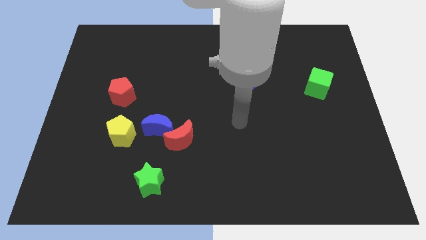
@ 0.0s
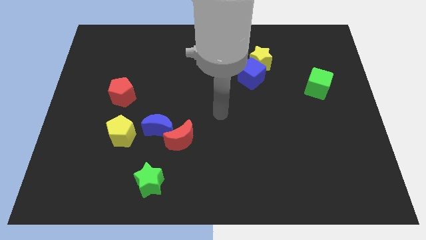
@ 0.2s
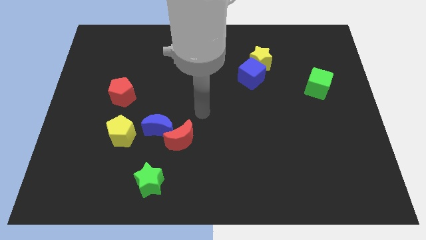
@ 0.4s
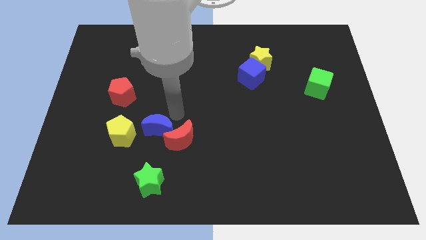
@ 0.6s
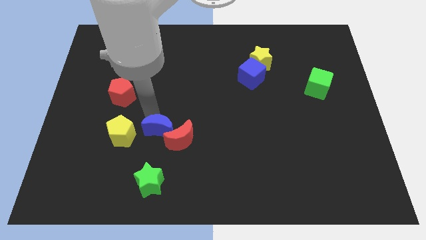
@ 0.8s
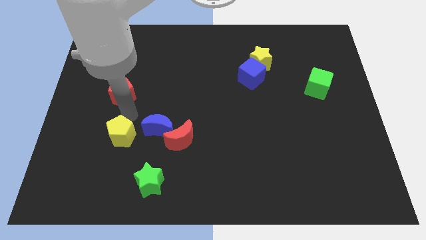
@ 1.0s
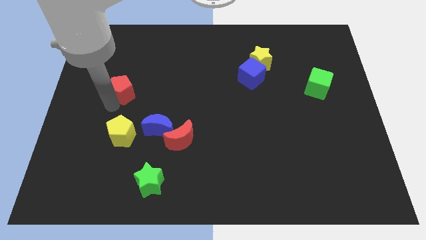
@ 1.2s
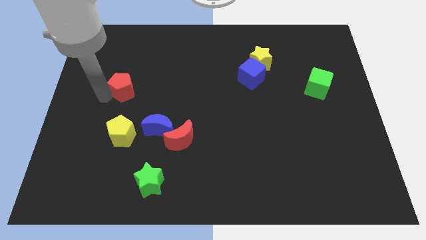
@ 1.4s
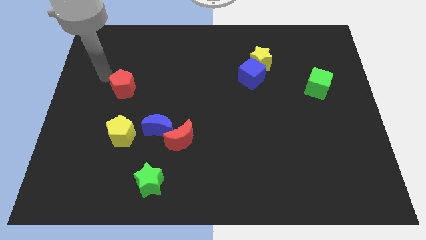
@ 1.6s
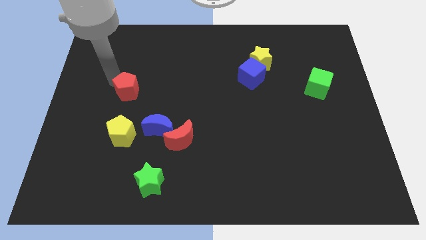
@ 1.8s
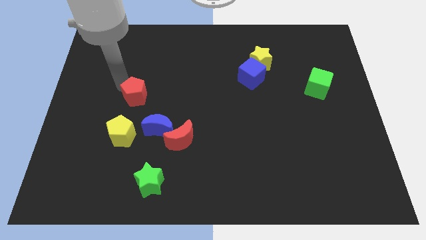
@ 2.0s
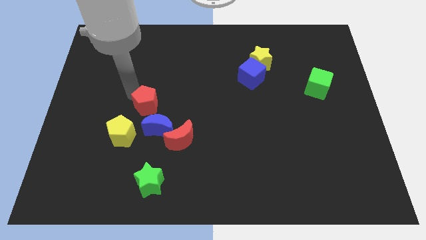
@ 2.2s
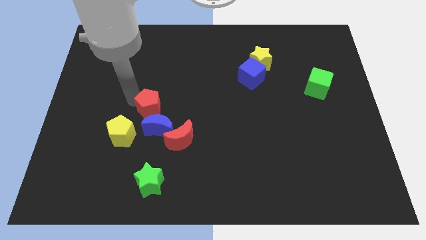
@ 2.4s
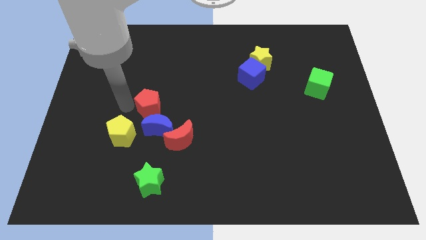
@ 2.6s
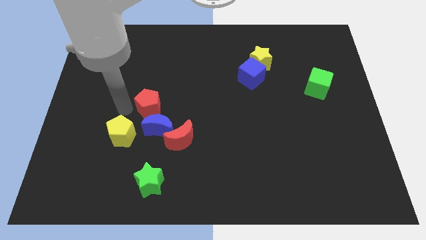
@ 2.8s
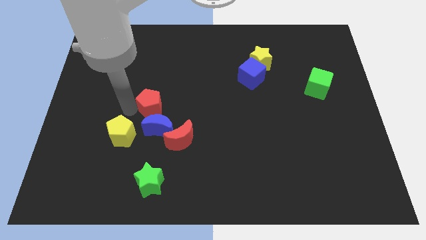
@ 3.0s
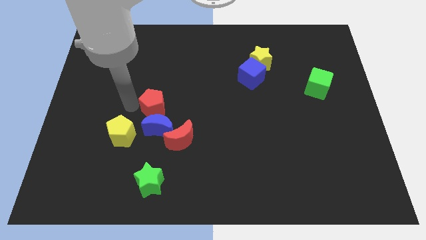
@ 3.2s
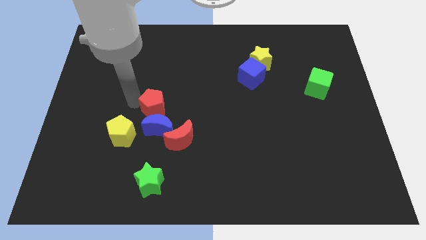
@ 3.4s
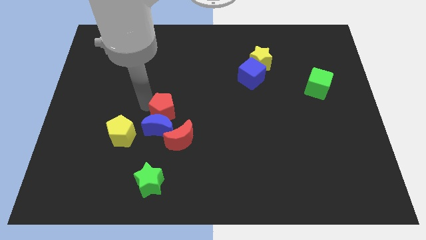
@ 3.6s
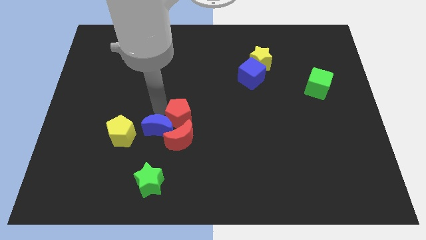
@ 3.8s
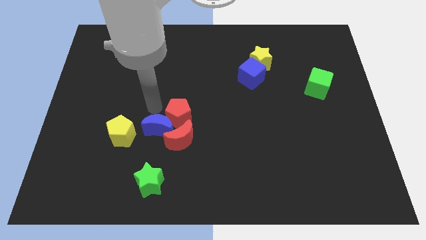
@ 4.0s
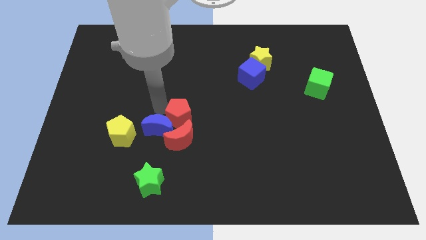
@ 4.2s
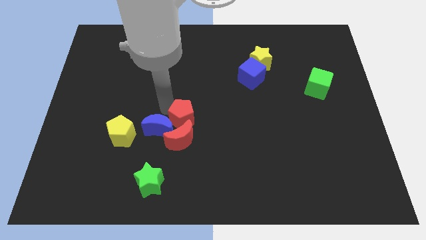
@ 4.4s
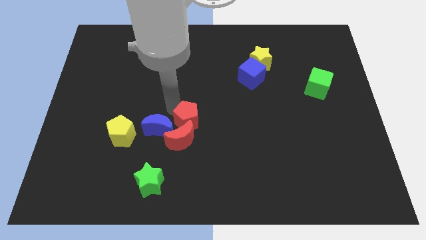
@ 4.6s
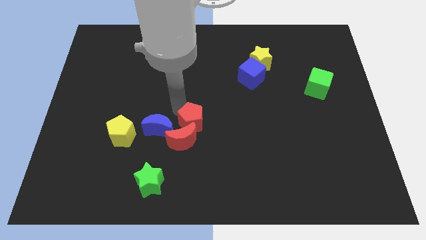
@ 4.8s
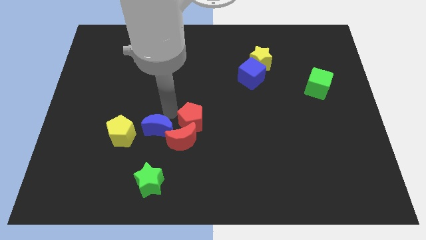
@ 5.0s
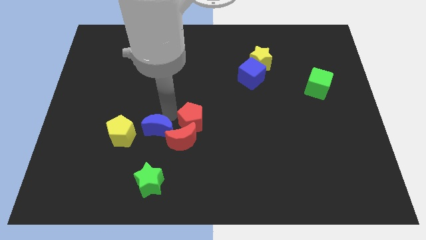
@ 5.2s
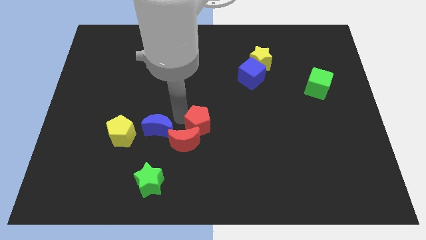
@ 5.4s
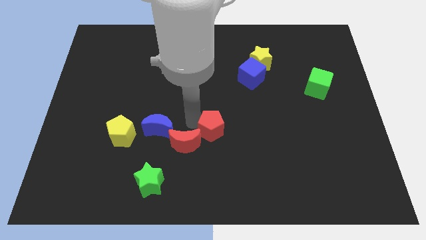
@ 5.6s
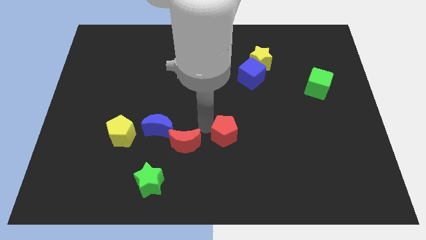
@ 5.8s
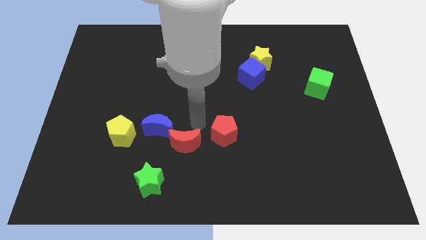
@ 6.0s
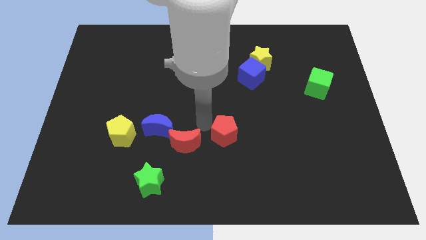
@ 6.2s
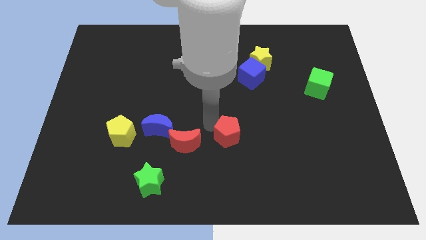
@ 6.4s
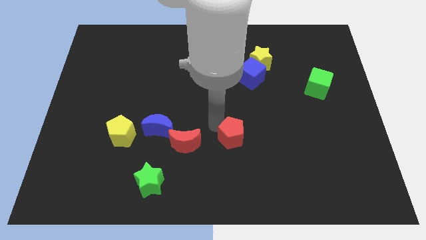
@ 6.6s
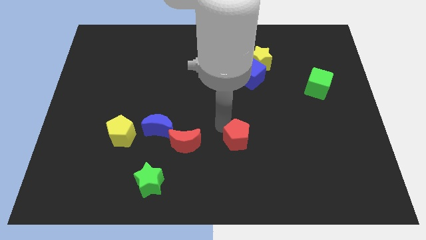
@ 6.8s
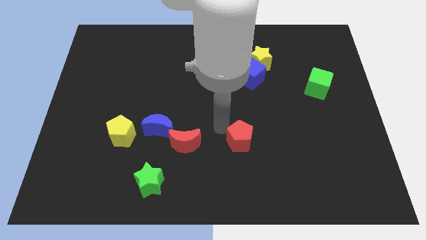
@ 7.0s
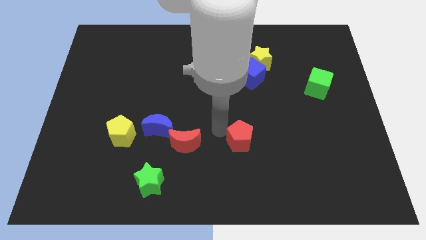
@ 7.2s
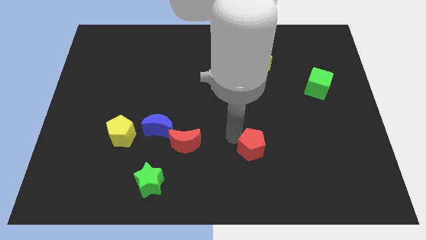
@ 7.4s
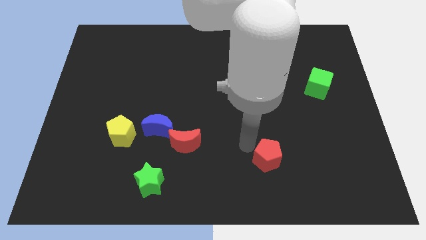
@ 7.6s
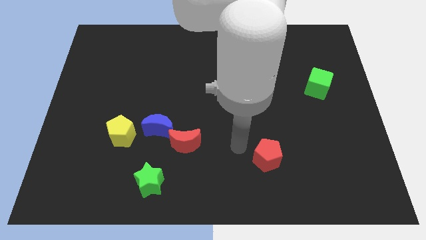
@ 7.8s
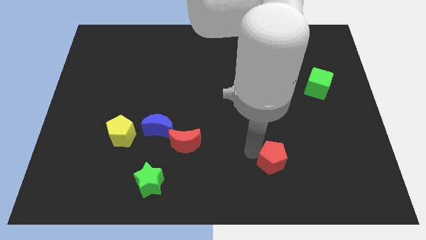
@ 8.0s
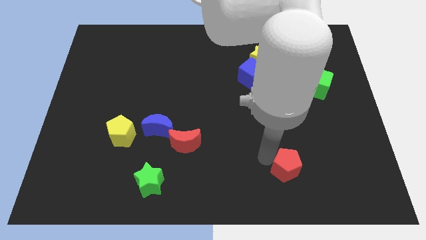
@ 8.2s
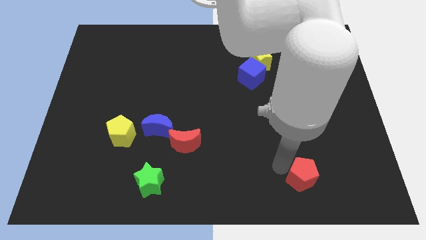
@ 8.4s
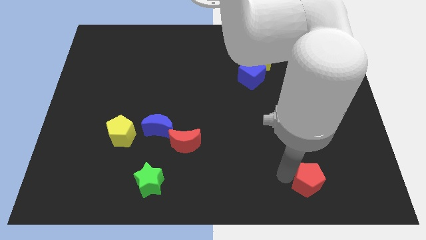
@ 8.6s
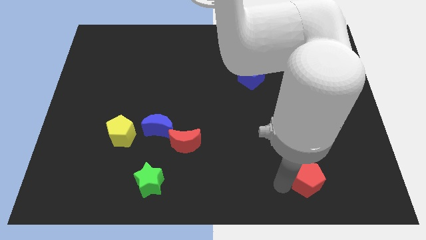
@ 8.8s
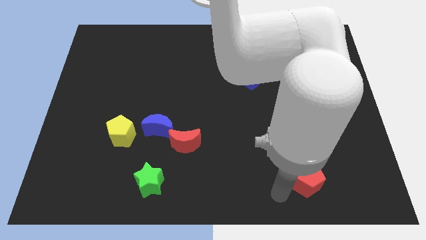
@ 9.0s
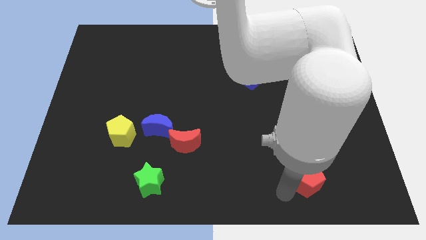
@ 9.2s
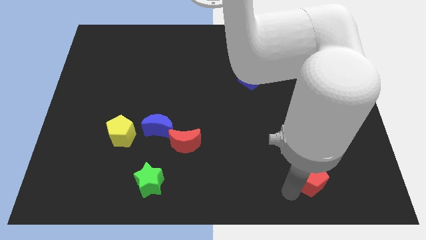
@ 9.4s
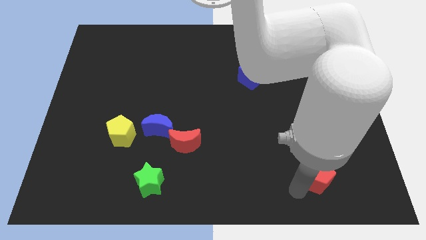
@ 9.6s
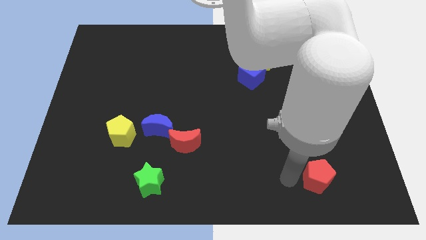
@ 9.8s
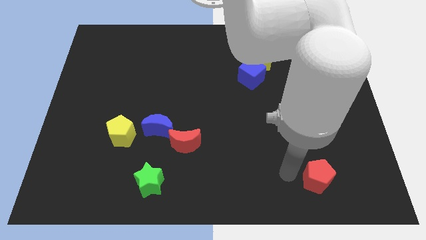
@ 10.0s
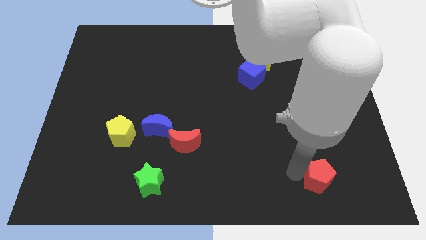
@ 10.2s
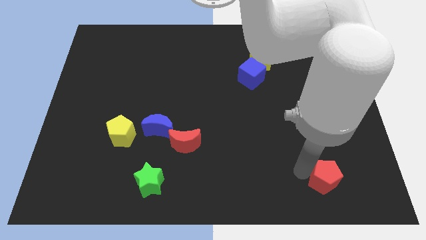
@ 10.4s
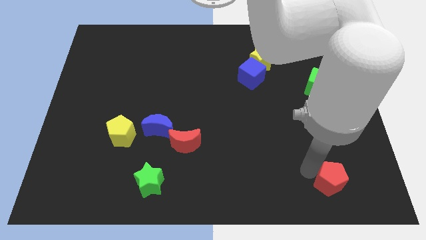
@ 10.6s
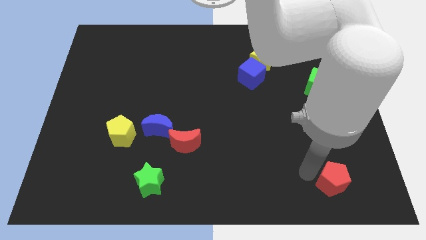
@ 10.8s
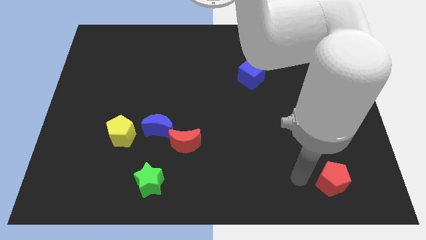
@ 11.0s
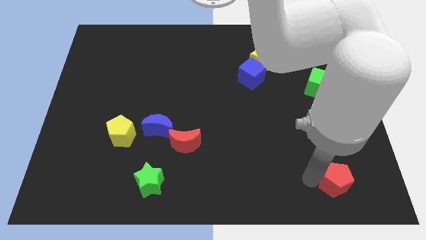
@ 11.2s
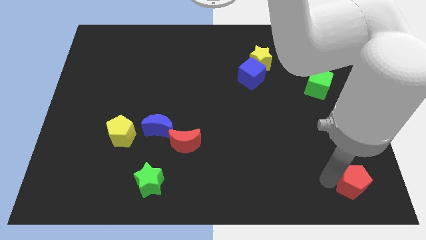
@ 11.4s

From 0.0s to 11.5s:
slide the red pentagon to the lower right corner

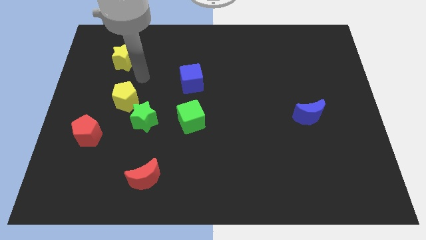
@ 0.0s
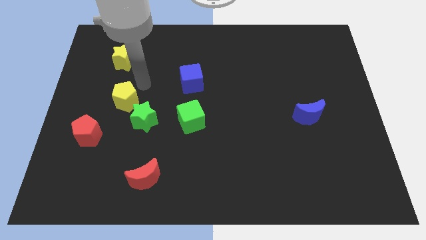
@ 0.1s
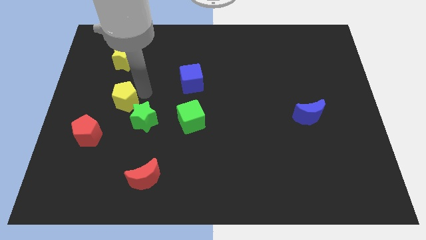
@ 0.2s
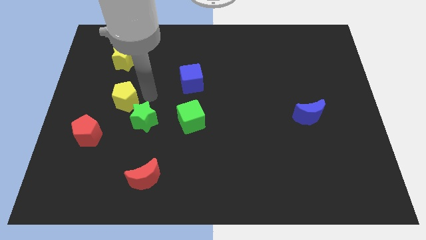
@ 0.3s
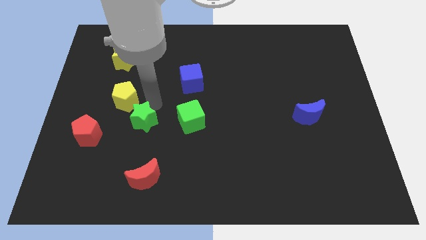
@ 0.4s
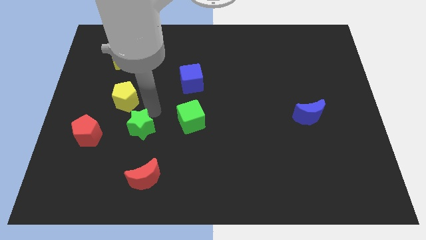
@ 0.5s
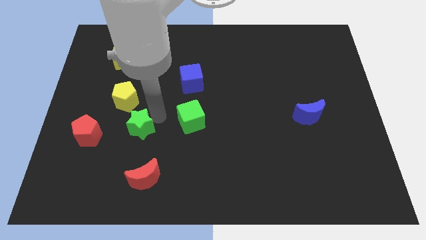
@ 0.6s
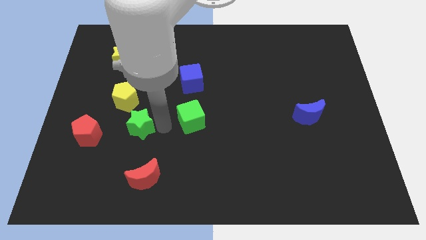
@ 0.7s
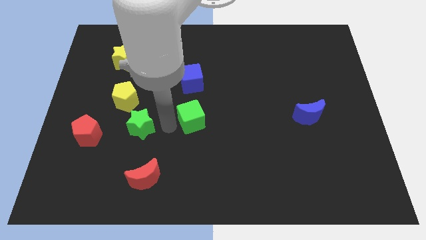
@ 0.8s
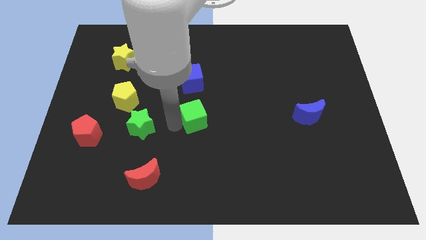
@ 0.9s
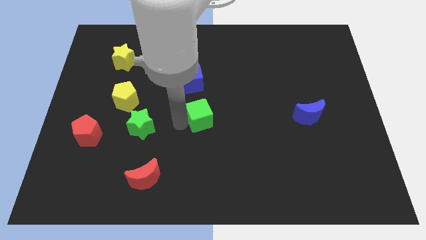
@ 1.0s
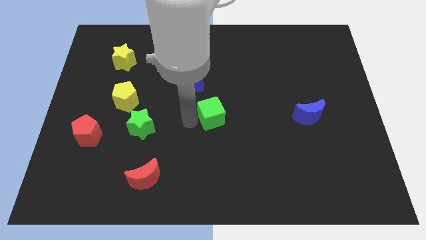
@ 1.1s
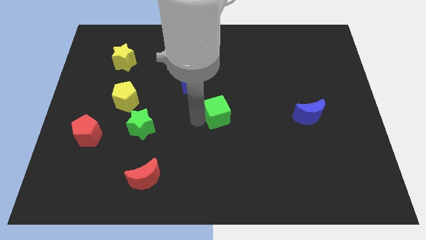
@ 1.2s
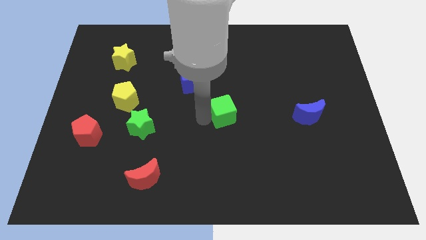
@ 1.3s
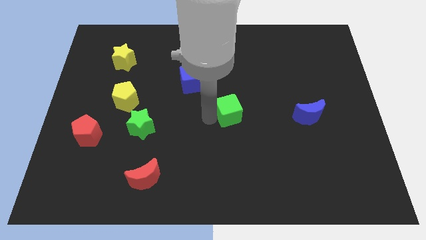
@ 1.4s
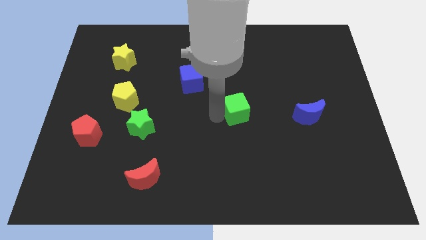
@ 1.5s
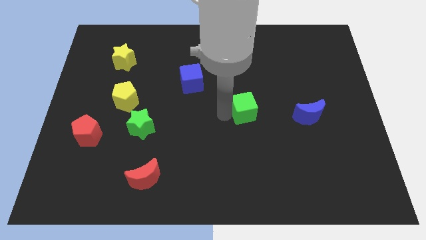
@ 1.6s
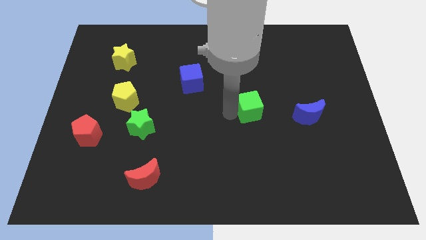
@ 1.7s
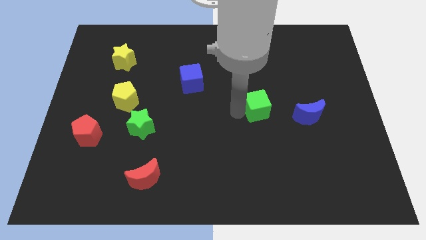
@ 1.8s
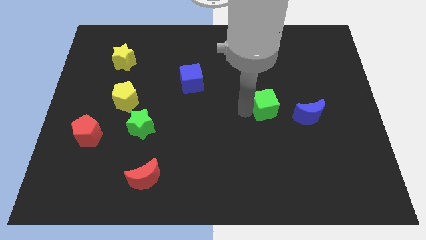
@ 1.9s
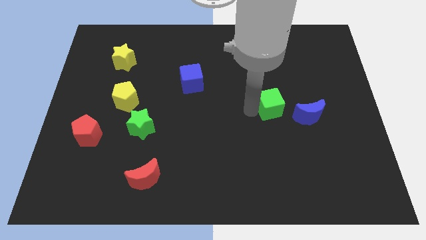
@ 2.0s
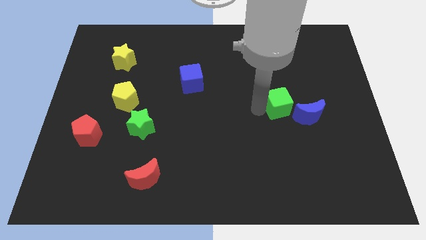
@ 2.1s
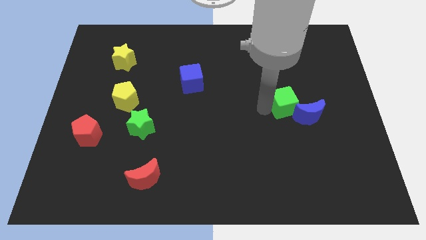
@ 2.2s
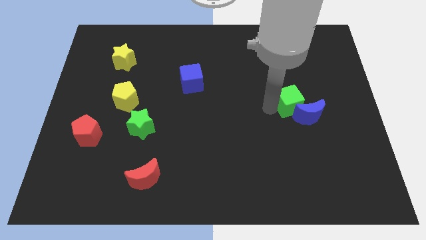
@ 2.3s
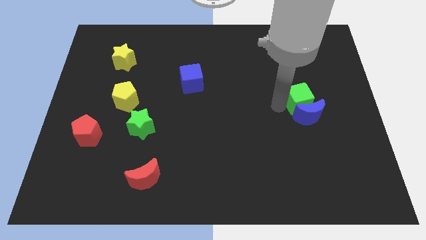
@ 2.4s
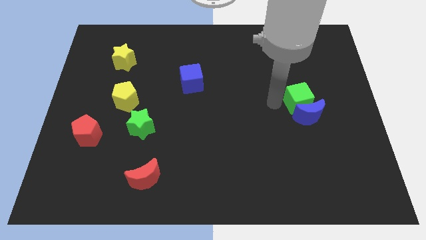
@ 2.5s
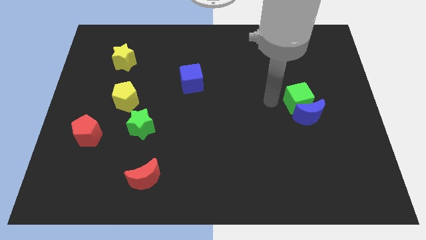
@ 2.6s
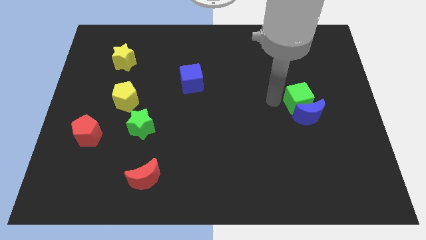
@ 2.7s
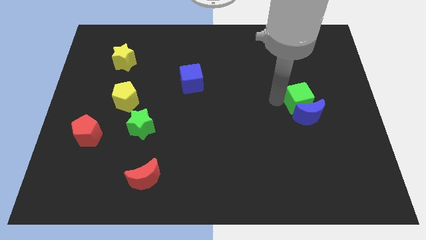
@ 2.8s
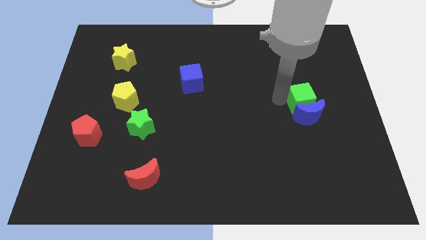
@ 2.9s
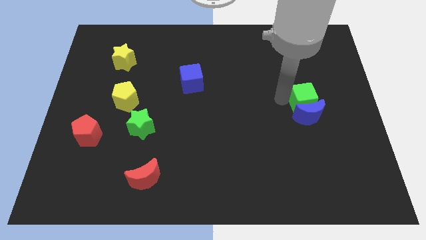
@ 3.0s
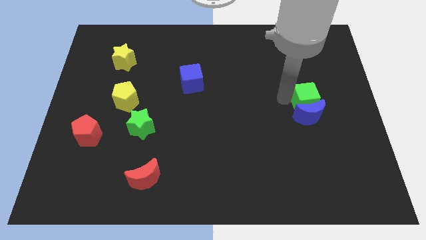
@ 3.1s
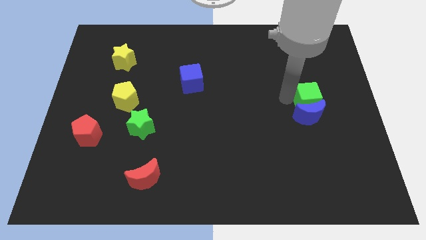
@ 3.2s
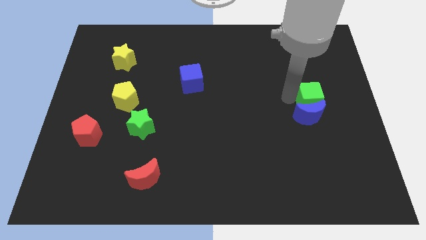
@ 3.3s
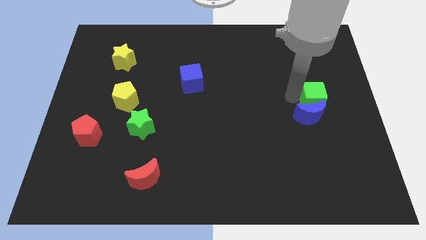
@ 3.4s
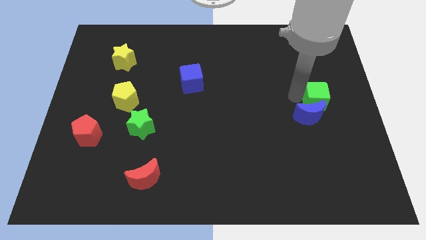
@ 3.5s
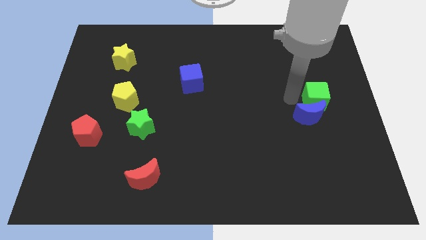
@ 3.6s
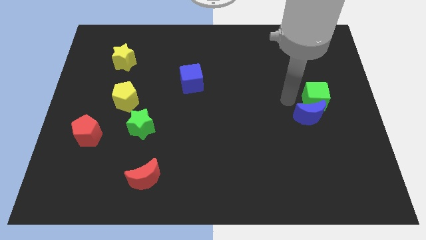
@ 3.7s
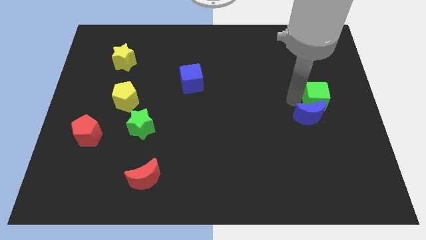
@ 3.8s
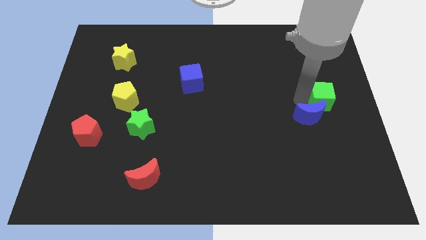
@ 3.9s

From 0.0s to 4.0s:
slide the green cube to the center right
